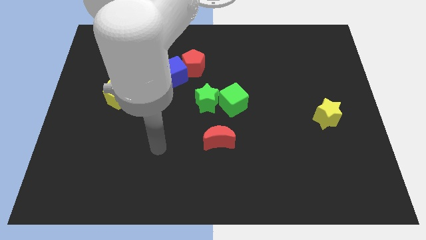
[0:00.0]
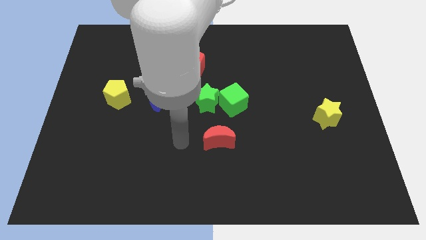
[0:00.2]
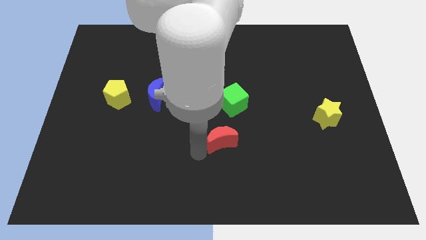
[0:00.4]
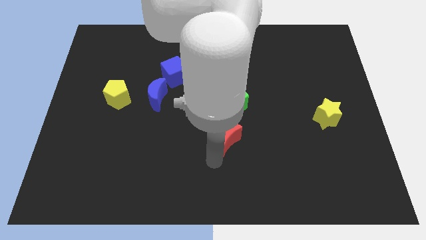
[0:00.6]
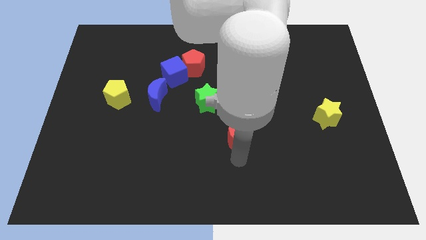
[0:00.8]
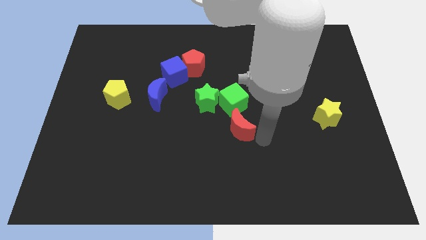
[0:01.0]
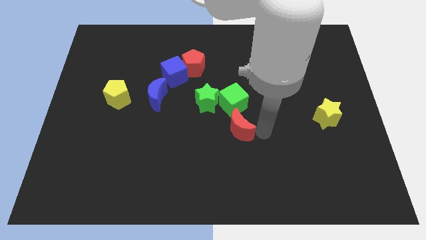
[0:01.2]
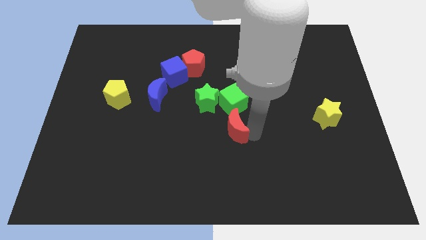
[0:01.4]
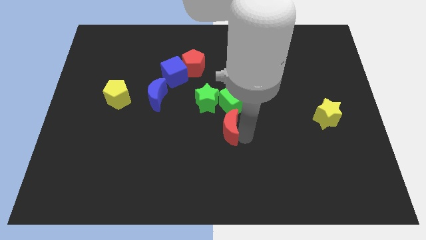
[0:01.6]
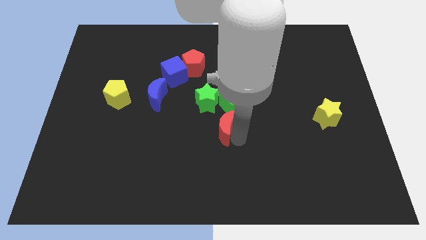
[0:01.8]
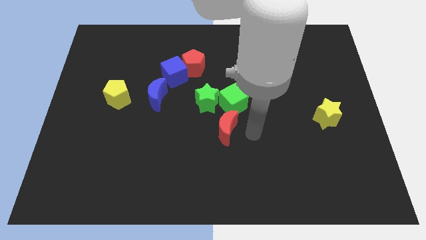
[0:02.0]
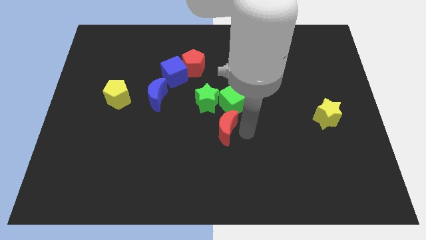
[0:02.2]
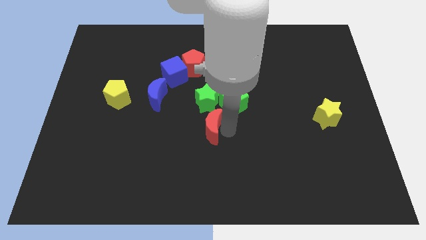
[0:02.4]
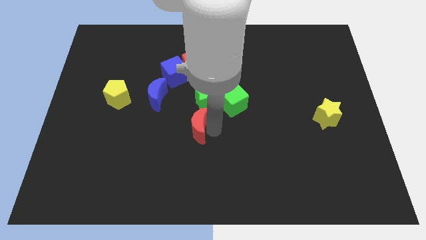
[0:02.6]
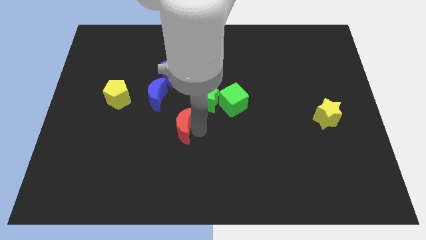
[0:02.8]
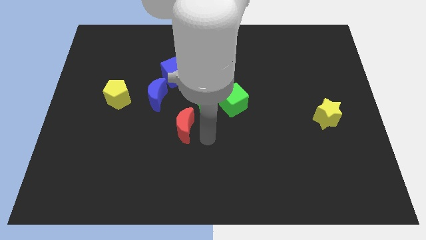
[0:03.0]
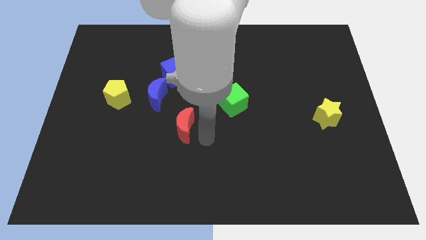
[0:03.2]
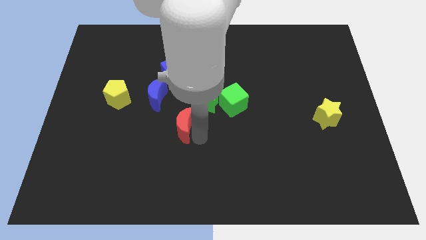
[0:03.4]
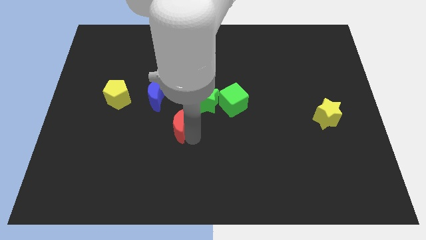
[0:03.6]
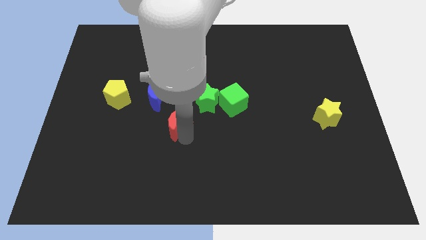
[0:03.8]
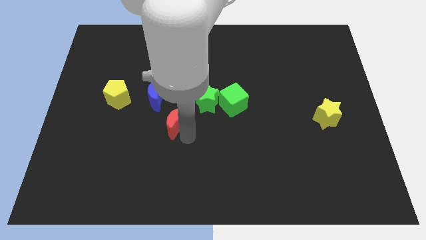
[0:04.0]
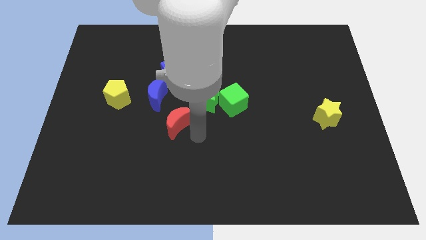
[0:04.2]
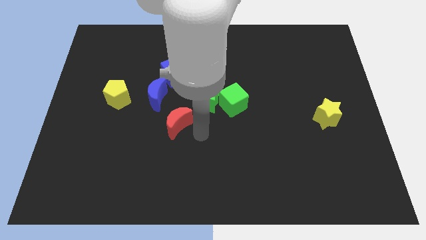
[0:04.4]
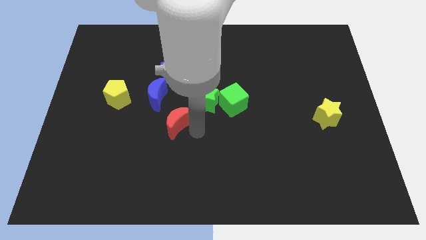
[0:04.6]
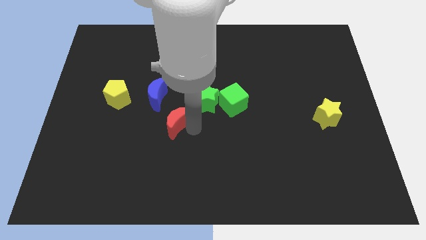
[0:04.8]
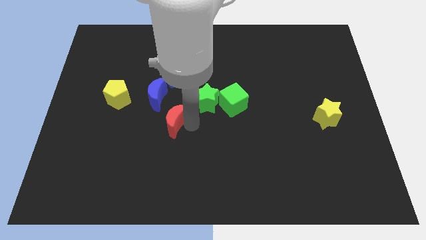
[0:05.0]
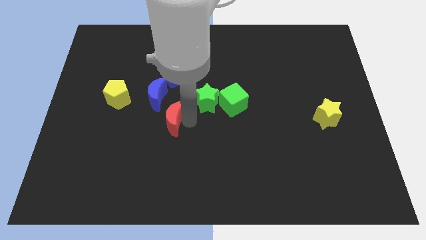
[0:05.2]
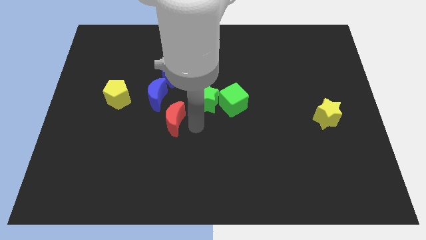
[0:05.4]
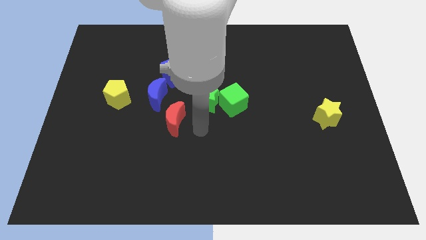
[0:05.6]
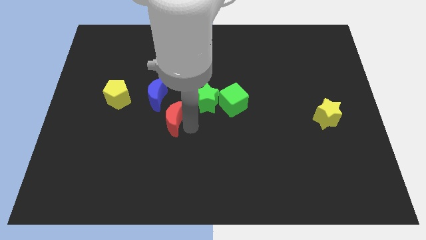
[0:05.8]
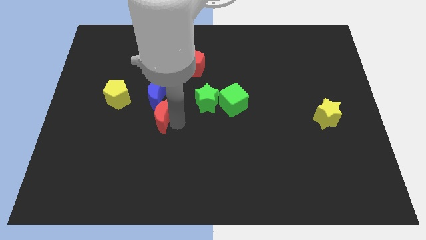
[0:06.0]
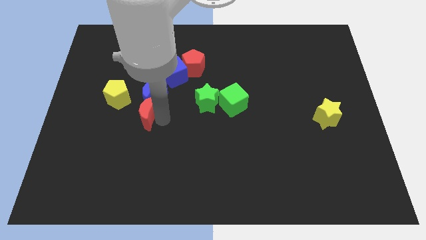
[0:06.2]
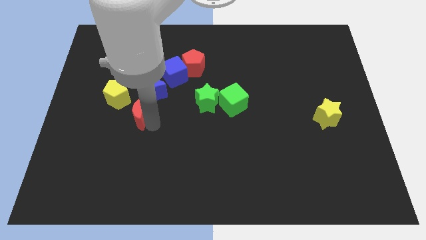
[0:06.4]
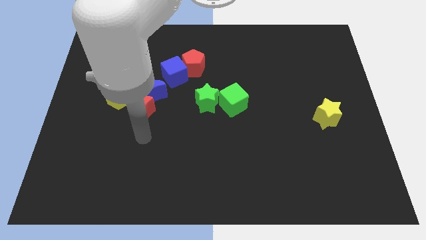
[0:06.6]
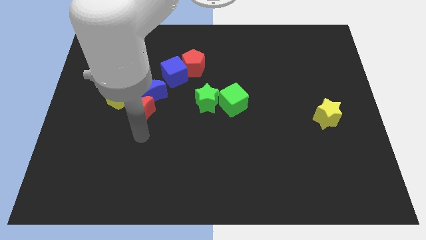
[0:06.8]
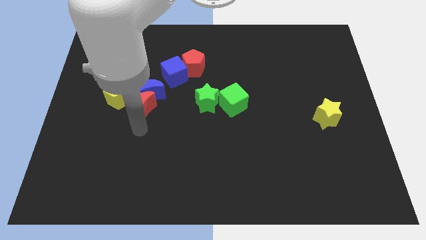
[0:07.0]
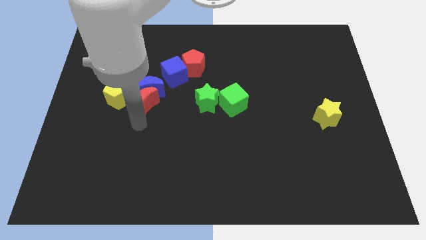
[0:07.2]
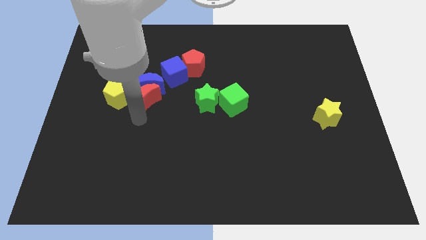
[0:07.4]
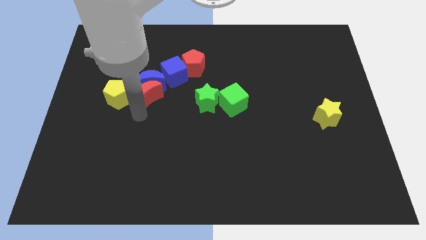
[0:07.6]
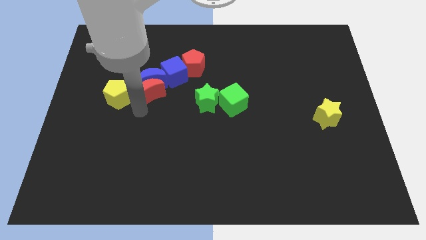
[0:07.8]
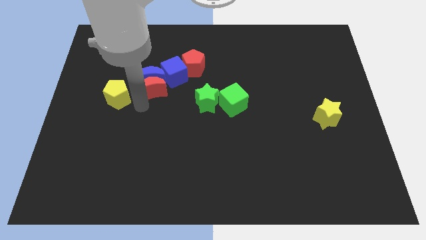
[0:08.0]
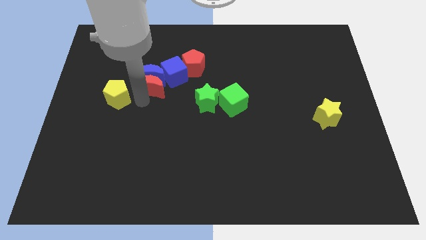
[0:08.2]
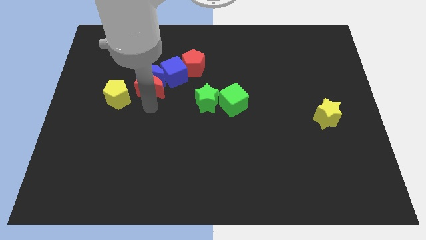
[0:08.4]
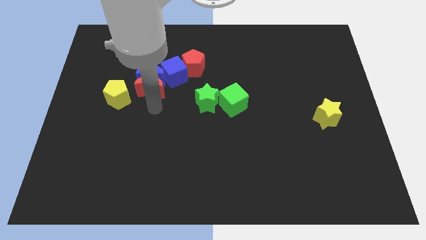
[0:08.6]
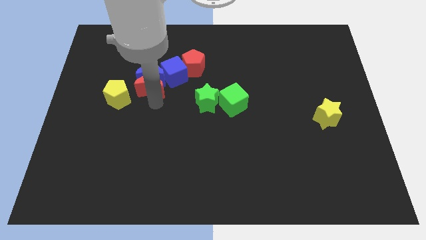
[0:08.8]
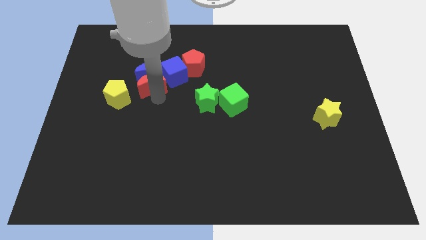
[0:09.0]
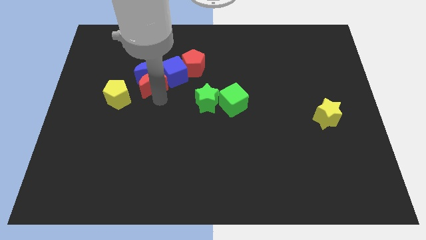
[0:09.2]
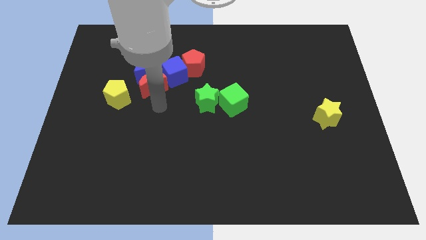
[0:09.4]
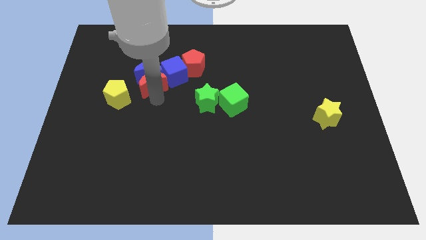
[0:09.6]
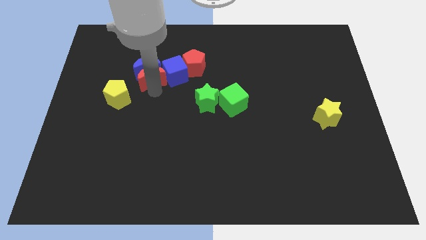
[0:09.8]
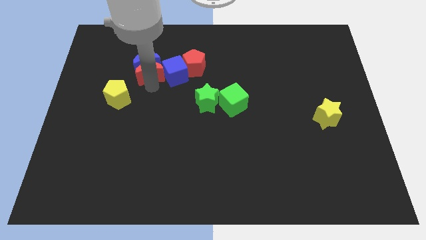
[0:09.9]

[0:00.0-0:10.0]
put the red moon to the top left side of the blue cube

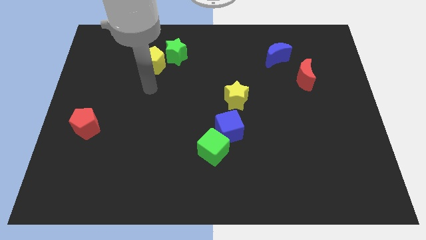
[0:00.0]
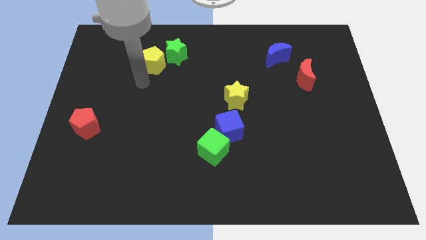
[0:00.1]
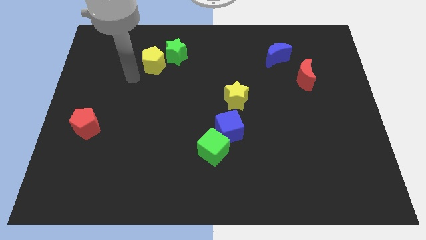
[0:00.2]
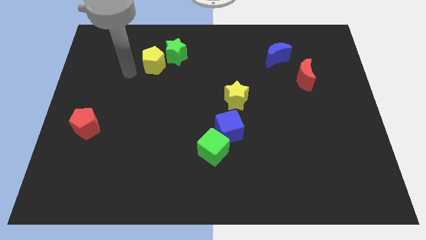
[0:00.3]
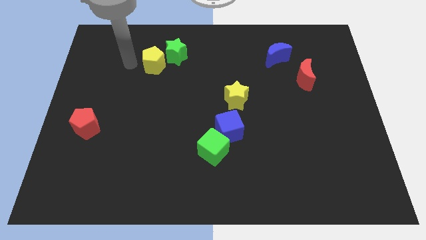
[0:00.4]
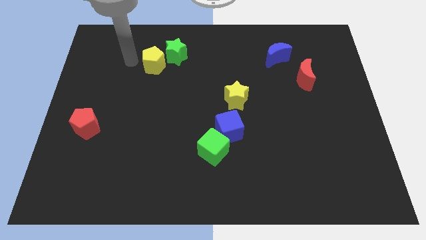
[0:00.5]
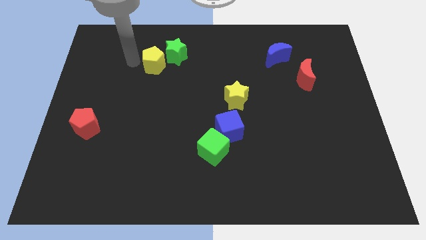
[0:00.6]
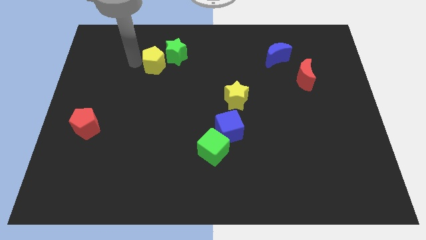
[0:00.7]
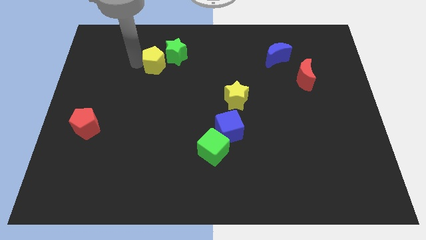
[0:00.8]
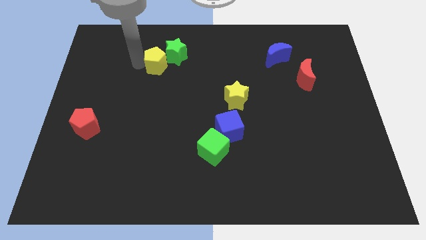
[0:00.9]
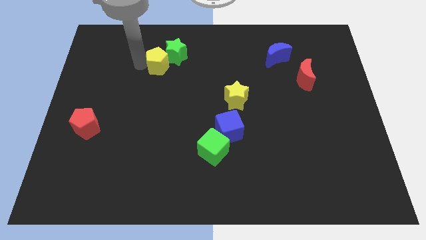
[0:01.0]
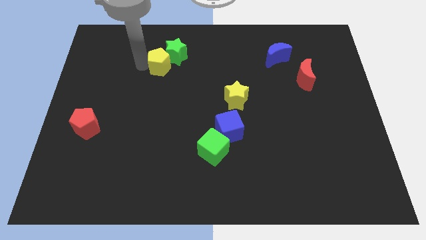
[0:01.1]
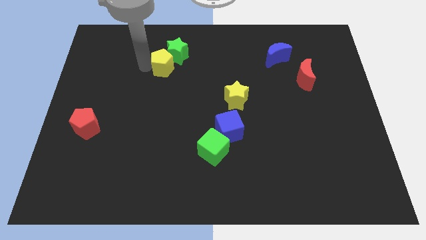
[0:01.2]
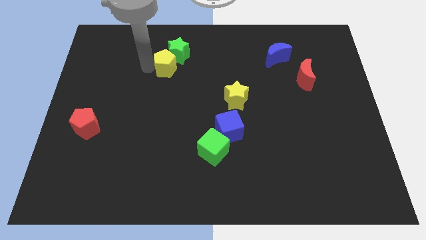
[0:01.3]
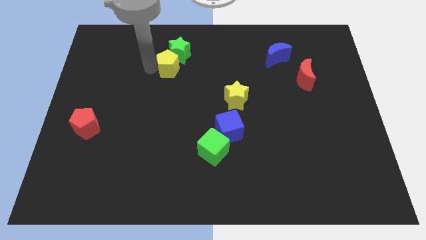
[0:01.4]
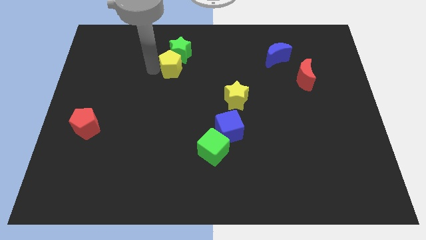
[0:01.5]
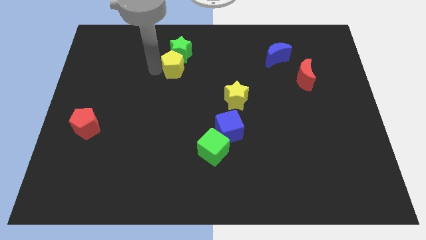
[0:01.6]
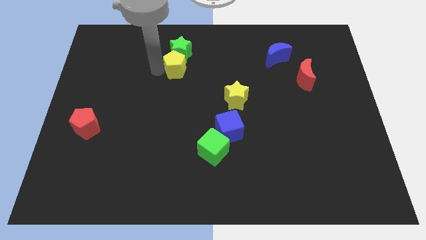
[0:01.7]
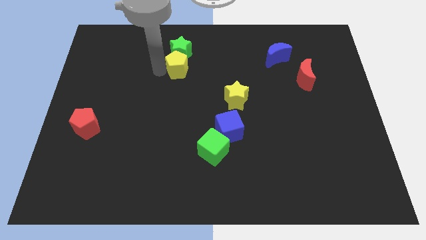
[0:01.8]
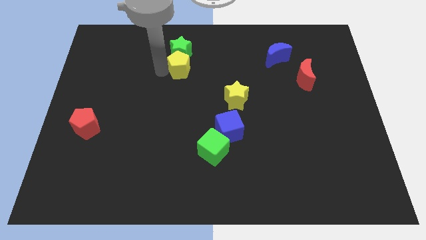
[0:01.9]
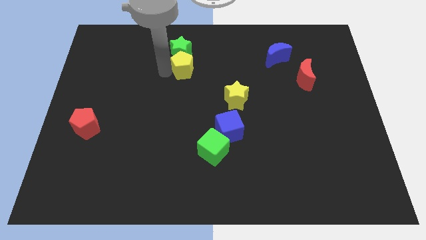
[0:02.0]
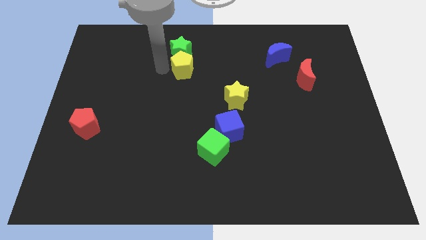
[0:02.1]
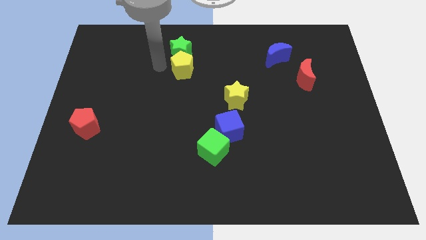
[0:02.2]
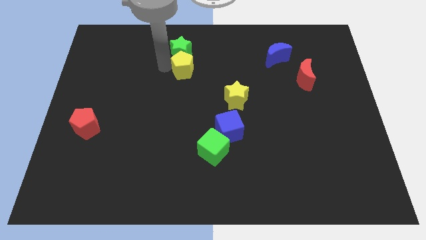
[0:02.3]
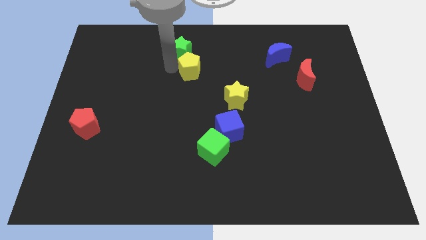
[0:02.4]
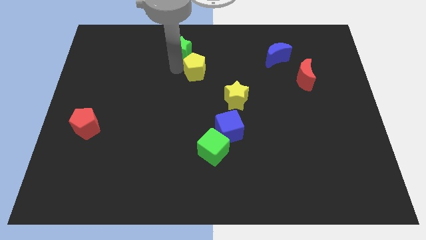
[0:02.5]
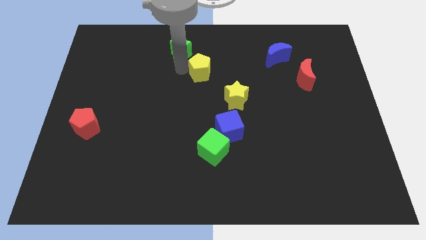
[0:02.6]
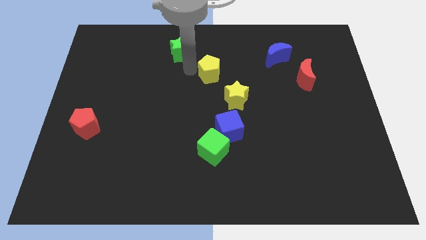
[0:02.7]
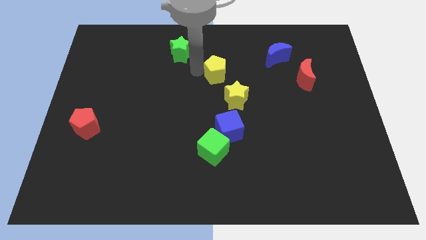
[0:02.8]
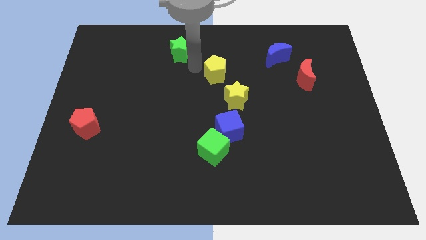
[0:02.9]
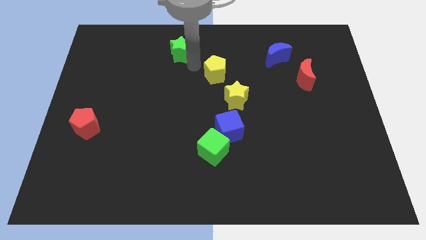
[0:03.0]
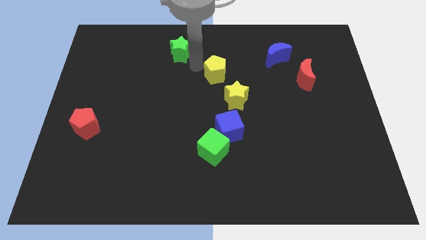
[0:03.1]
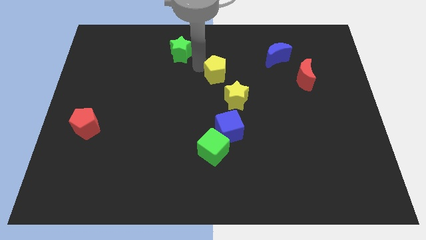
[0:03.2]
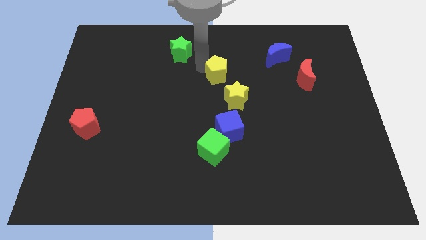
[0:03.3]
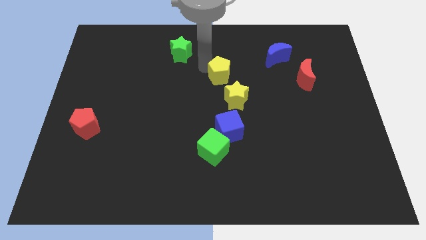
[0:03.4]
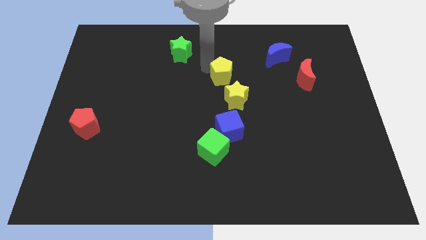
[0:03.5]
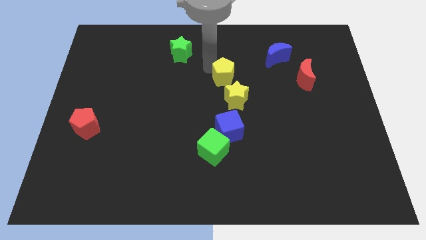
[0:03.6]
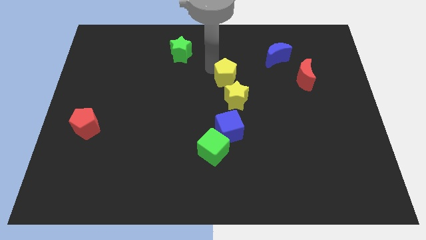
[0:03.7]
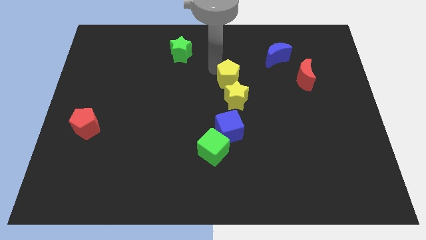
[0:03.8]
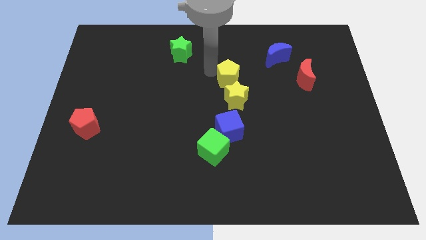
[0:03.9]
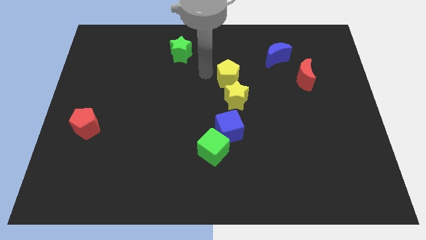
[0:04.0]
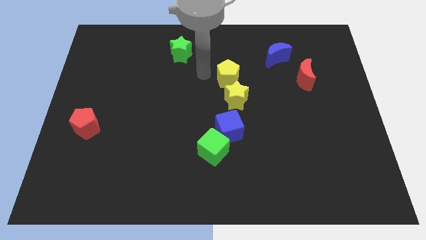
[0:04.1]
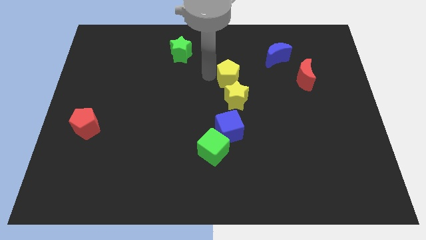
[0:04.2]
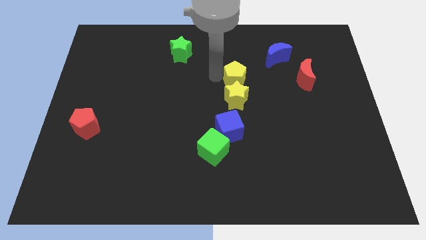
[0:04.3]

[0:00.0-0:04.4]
push the yellow pentagon diagonally up and to the right of the yellow star
